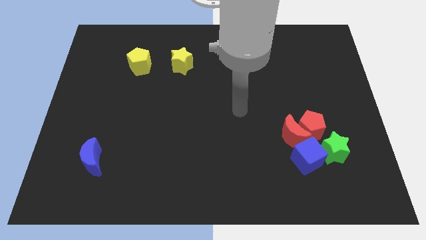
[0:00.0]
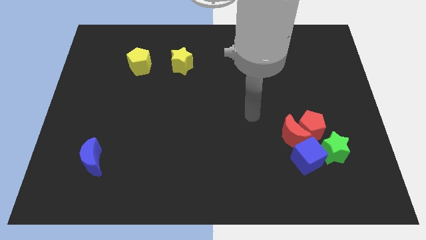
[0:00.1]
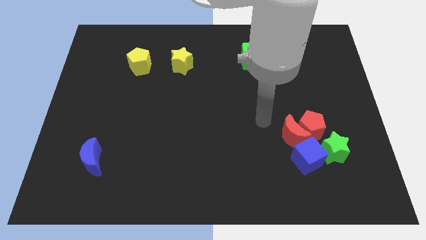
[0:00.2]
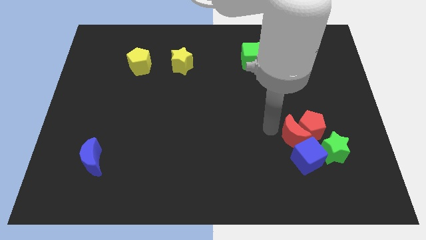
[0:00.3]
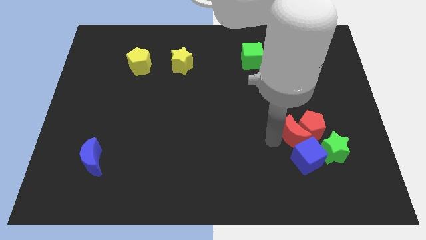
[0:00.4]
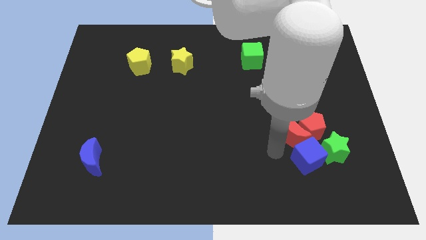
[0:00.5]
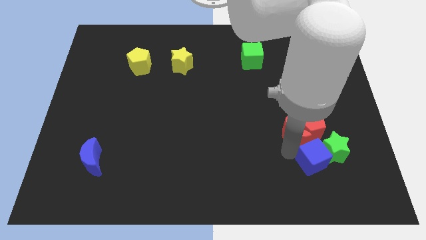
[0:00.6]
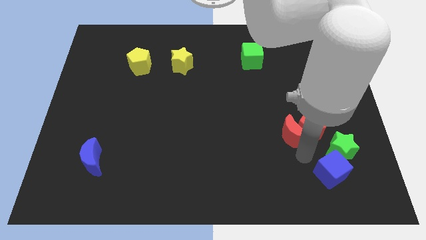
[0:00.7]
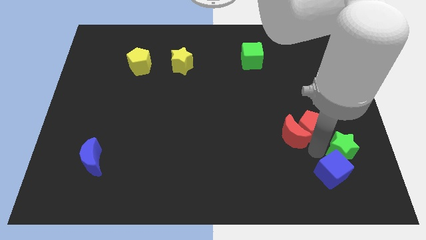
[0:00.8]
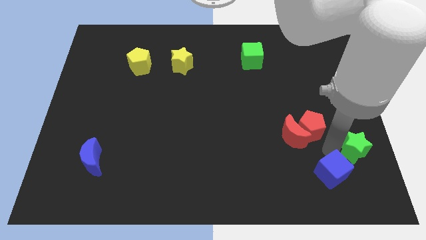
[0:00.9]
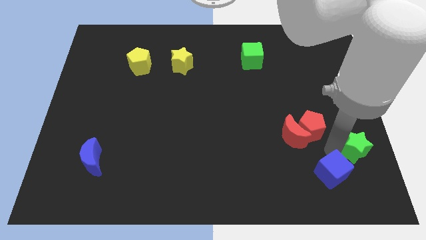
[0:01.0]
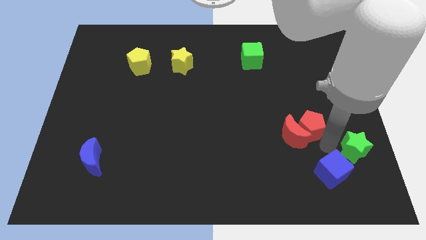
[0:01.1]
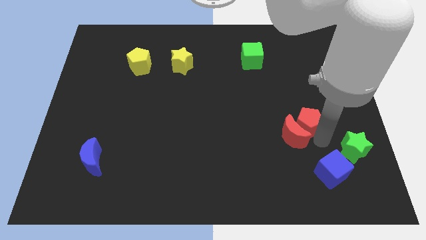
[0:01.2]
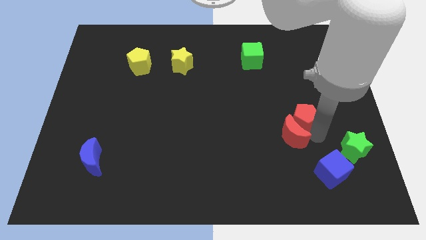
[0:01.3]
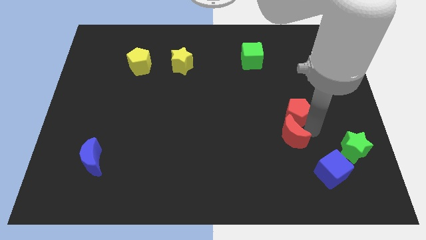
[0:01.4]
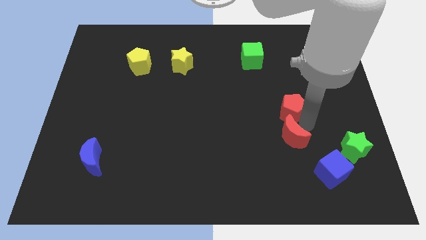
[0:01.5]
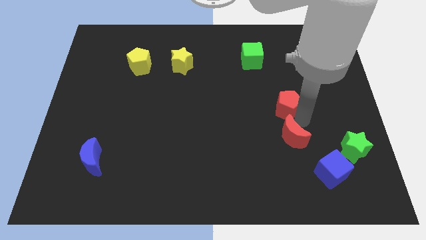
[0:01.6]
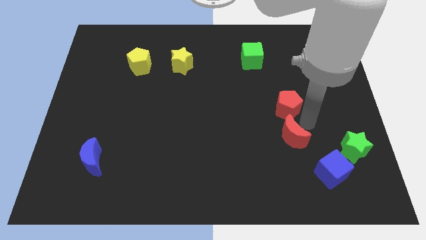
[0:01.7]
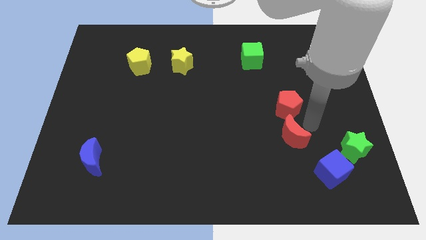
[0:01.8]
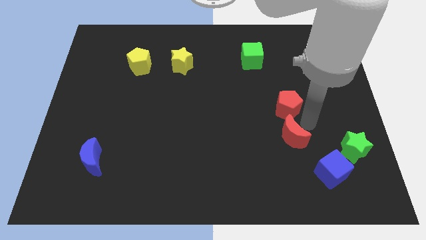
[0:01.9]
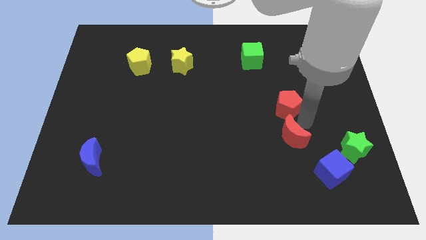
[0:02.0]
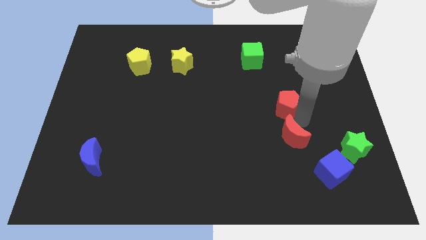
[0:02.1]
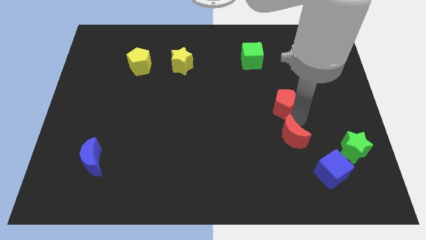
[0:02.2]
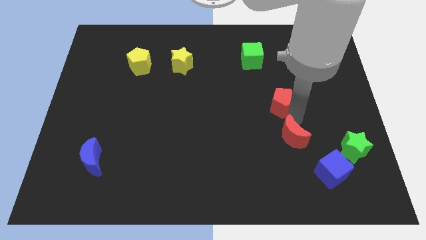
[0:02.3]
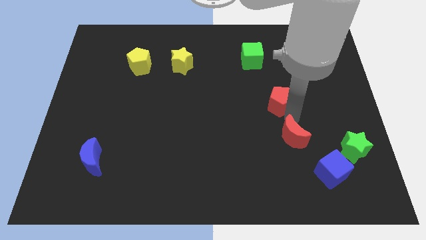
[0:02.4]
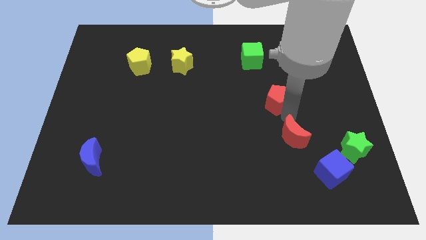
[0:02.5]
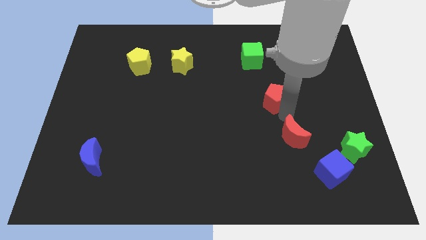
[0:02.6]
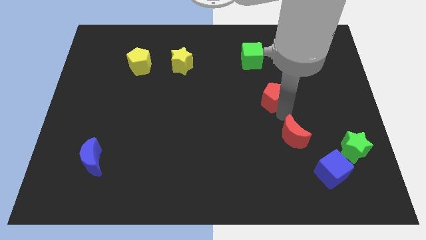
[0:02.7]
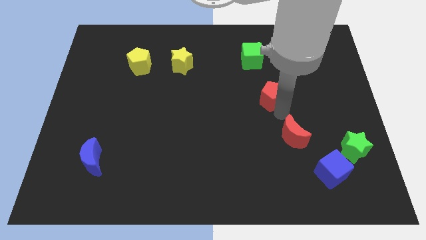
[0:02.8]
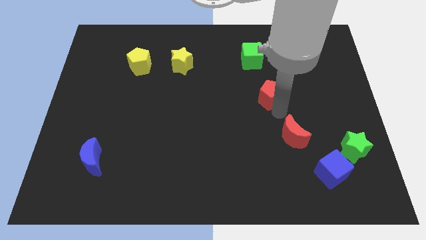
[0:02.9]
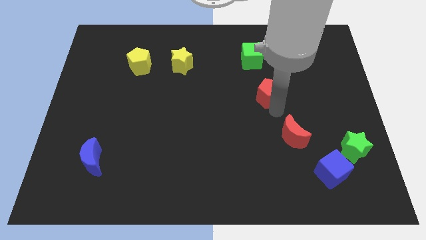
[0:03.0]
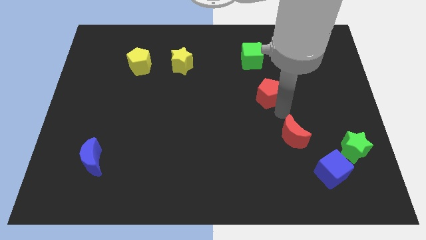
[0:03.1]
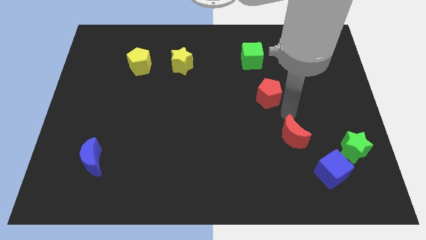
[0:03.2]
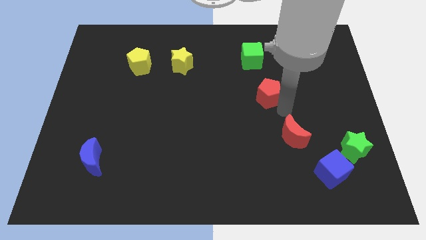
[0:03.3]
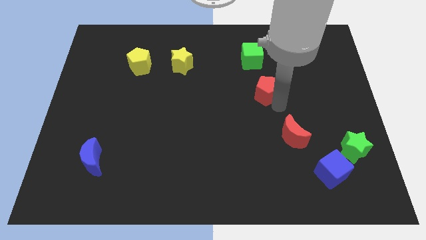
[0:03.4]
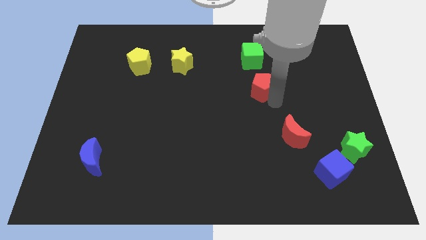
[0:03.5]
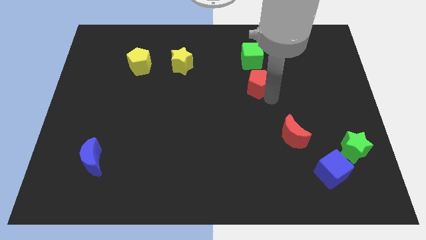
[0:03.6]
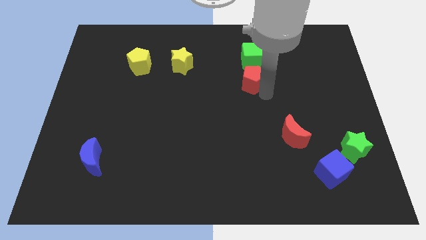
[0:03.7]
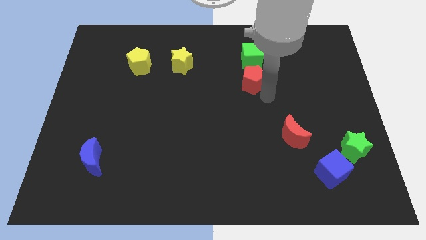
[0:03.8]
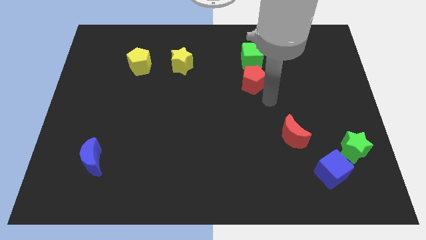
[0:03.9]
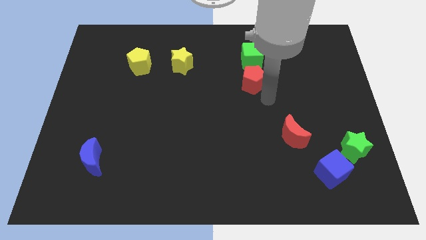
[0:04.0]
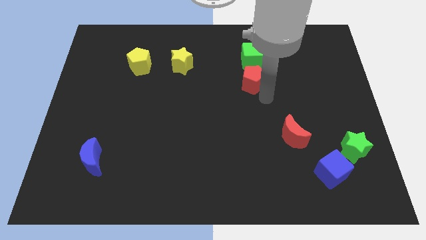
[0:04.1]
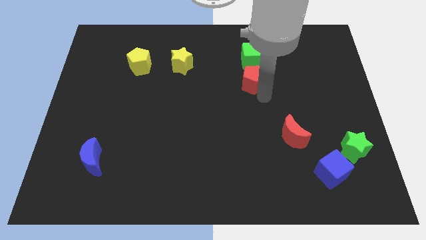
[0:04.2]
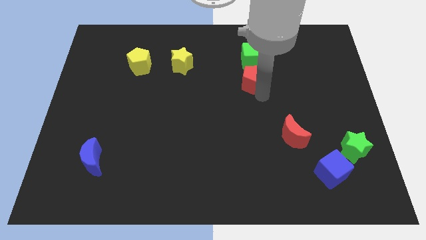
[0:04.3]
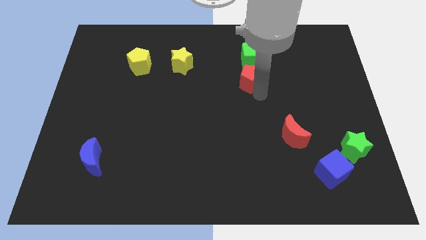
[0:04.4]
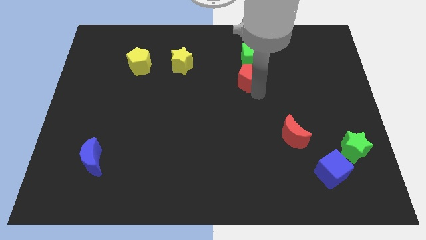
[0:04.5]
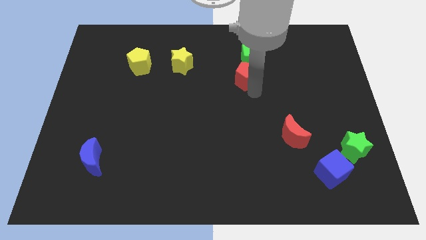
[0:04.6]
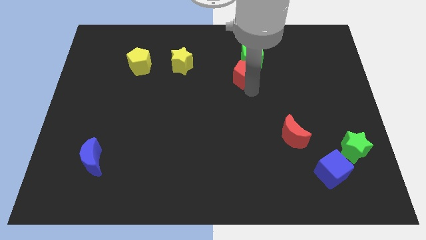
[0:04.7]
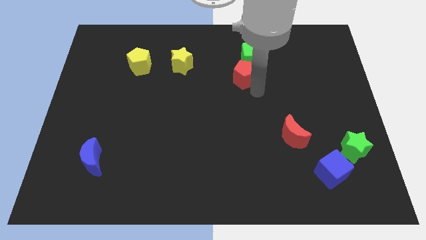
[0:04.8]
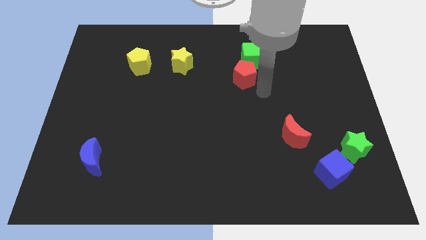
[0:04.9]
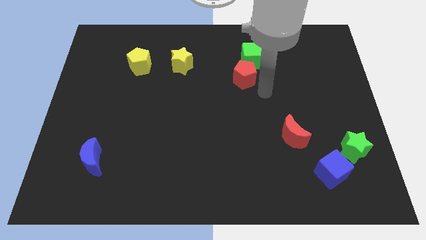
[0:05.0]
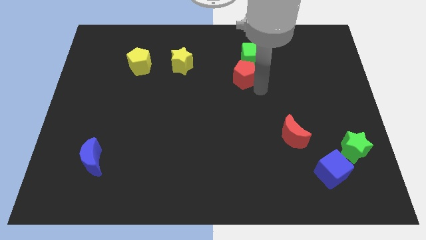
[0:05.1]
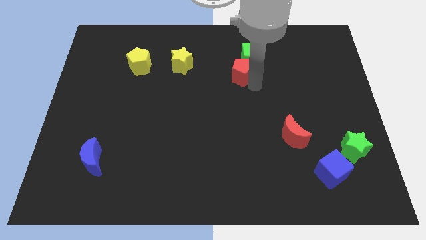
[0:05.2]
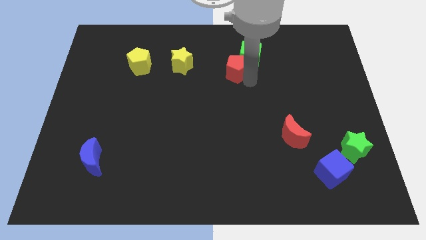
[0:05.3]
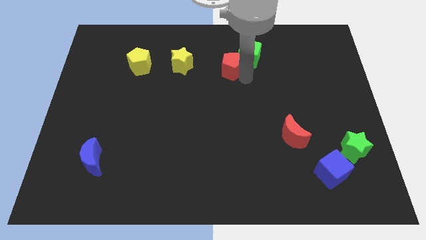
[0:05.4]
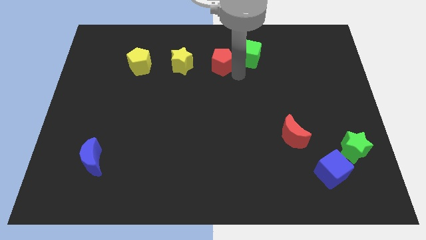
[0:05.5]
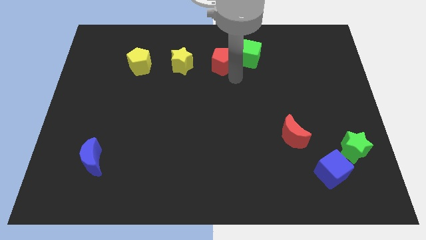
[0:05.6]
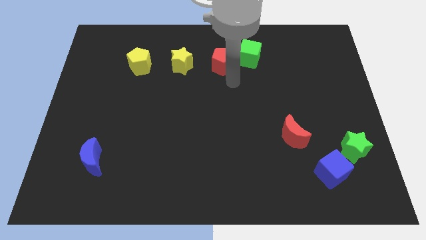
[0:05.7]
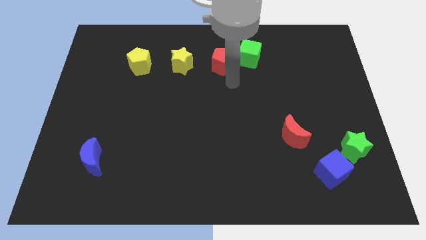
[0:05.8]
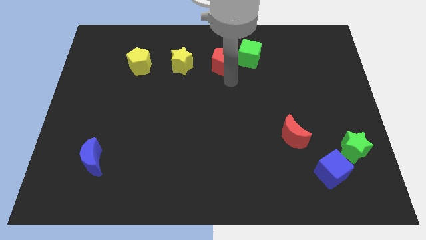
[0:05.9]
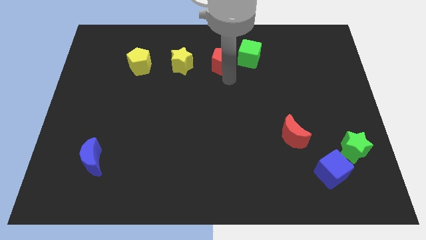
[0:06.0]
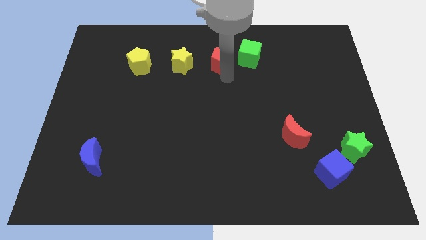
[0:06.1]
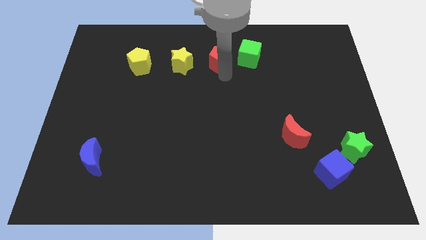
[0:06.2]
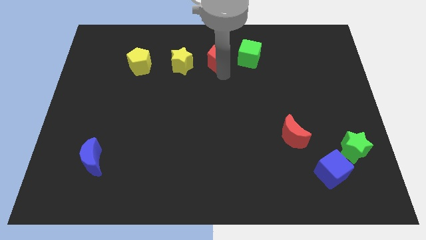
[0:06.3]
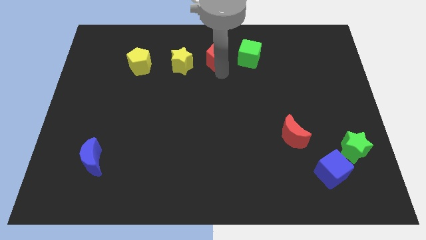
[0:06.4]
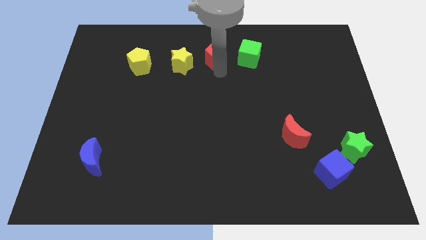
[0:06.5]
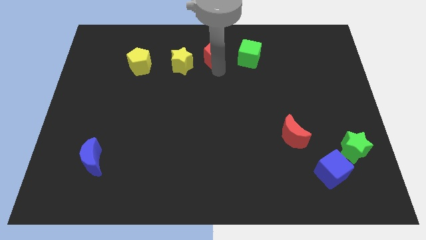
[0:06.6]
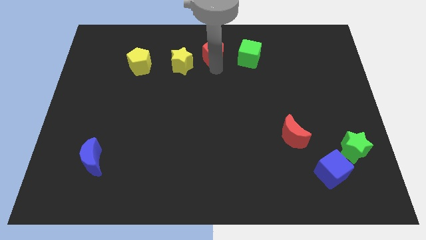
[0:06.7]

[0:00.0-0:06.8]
put the red pentagon to the top side
